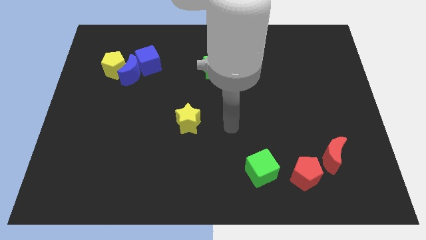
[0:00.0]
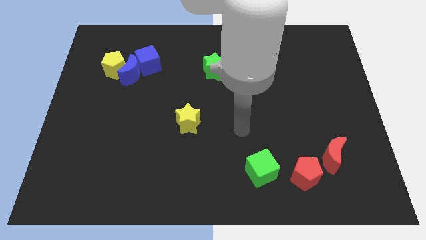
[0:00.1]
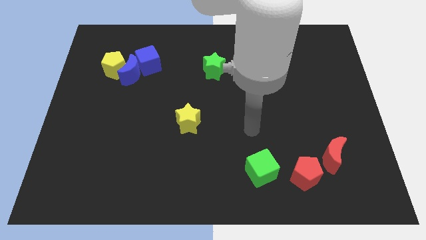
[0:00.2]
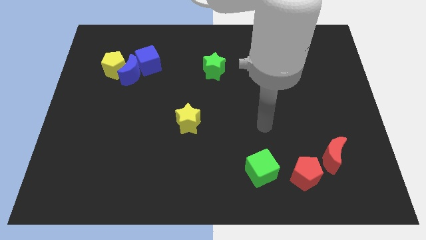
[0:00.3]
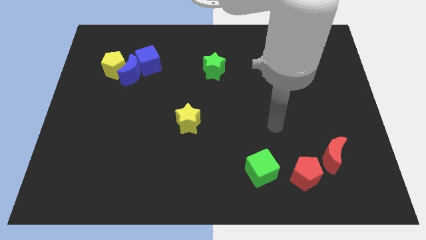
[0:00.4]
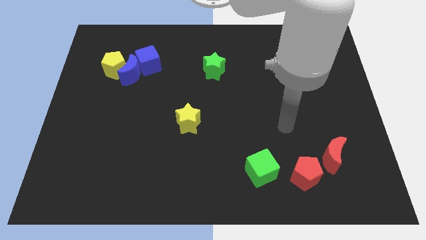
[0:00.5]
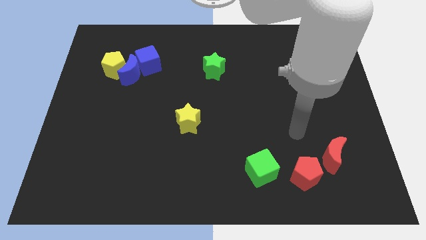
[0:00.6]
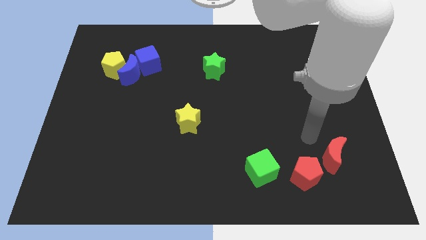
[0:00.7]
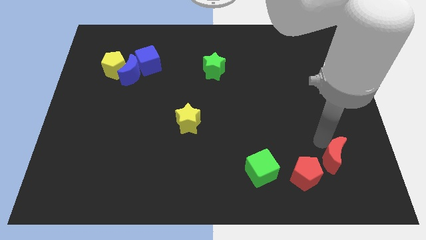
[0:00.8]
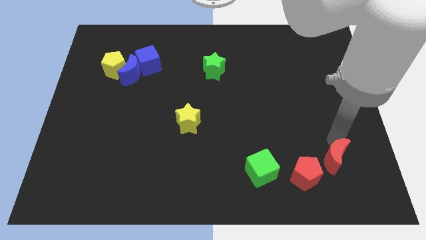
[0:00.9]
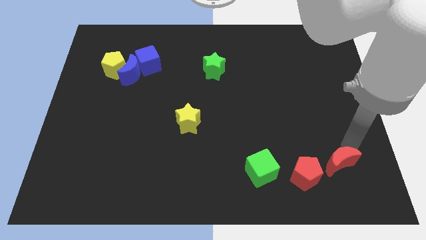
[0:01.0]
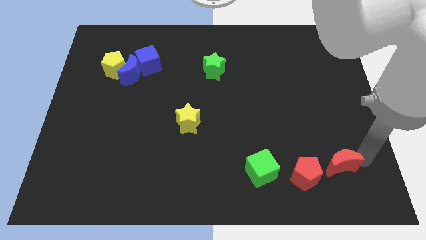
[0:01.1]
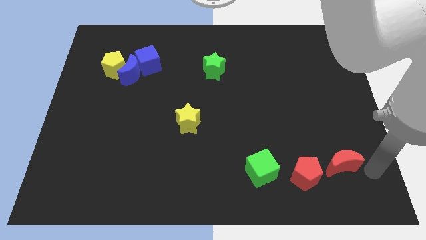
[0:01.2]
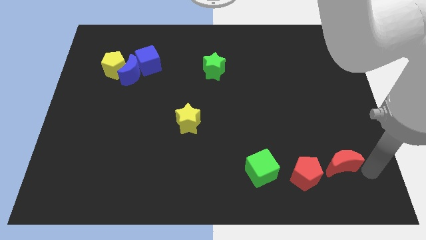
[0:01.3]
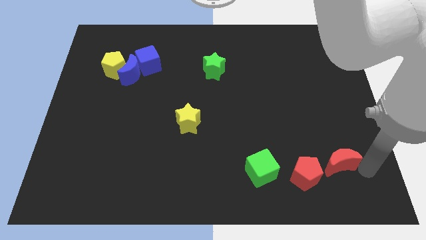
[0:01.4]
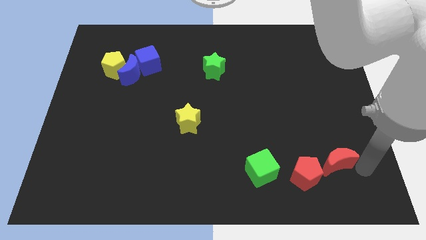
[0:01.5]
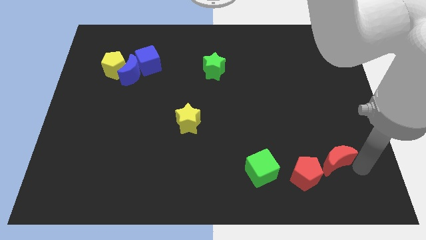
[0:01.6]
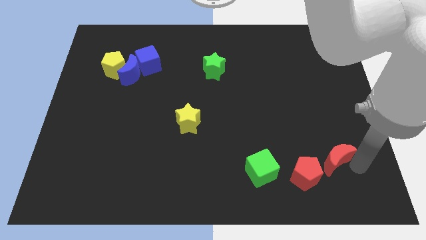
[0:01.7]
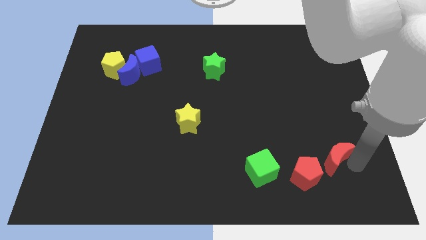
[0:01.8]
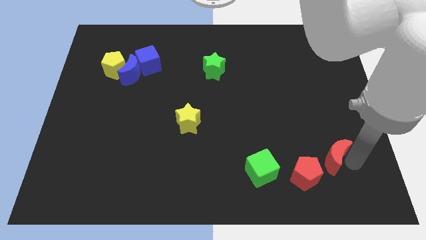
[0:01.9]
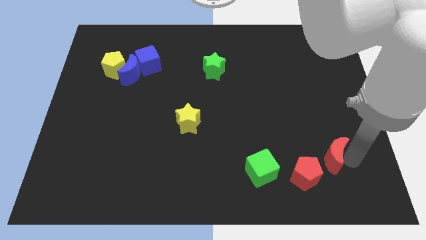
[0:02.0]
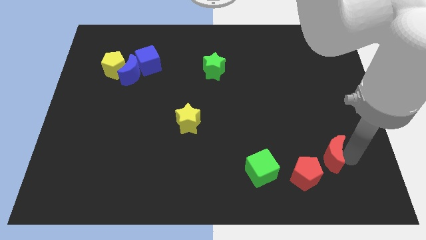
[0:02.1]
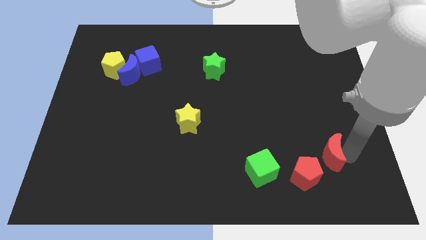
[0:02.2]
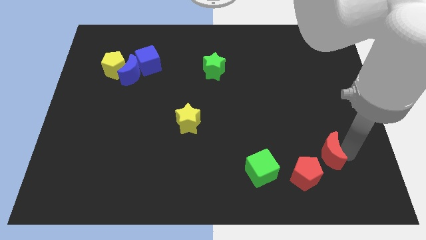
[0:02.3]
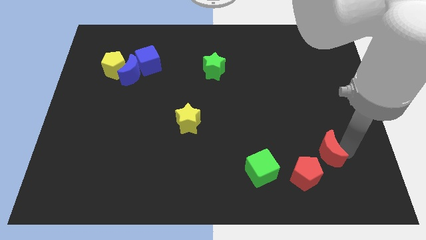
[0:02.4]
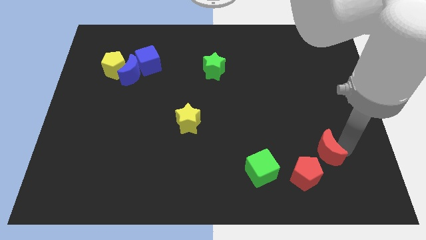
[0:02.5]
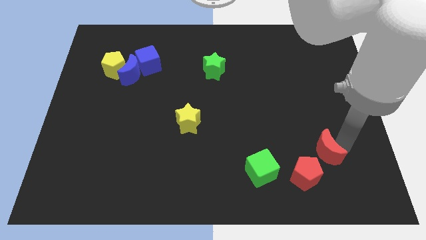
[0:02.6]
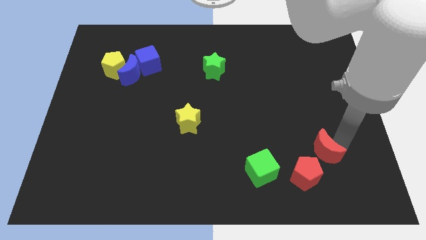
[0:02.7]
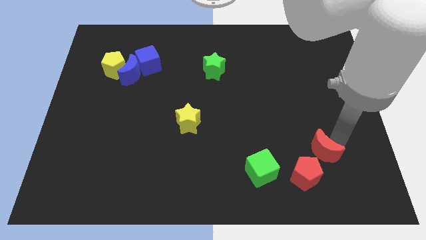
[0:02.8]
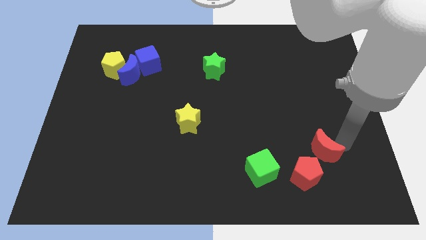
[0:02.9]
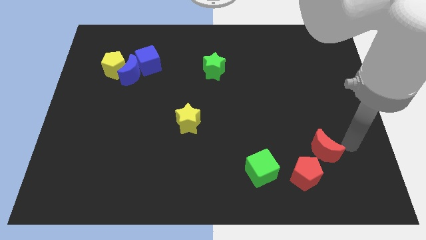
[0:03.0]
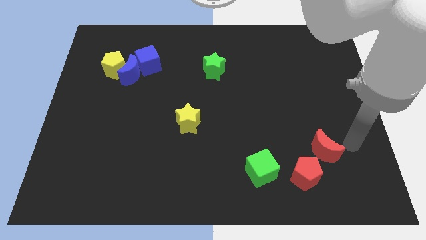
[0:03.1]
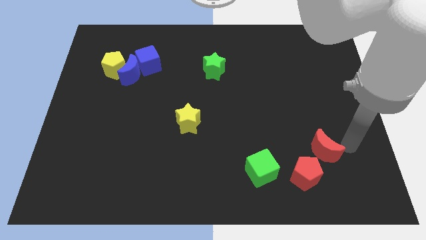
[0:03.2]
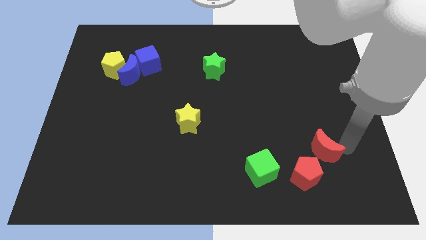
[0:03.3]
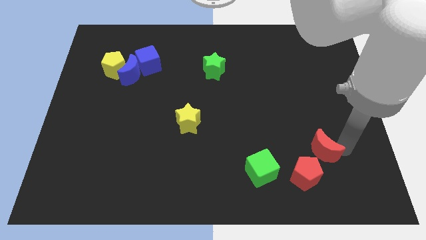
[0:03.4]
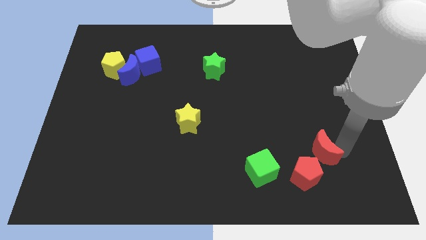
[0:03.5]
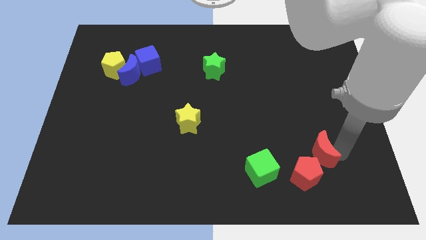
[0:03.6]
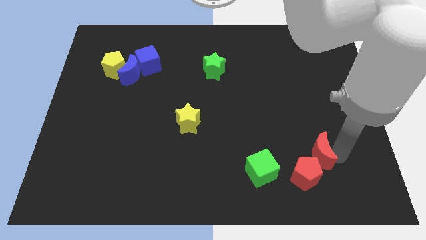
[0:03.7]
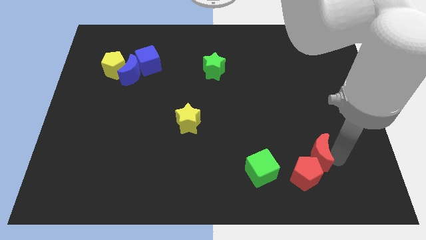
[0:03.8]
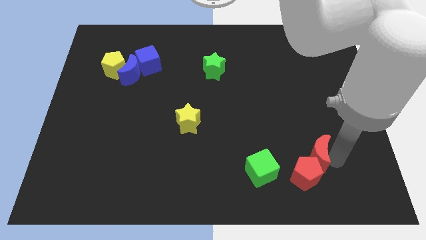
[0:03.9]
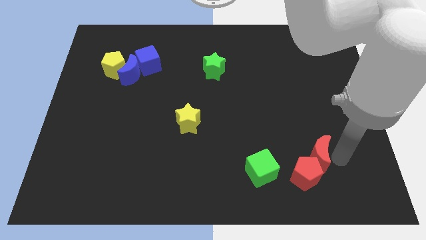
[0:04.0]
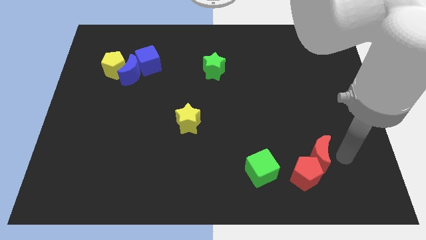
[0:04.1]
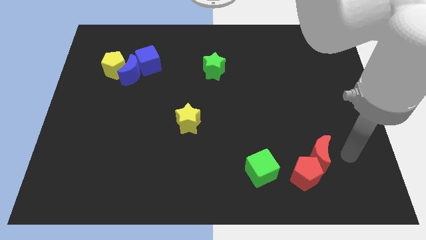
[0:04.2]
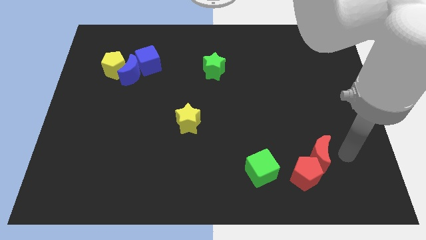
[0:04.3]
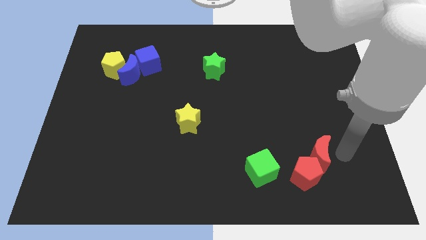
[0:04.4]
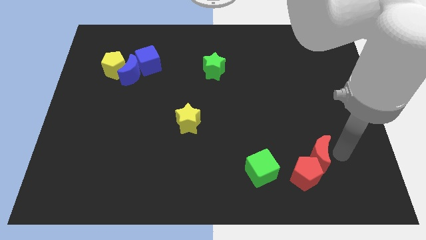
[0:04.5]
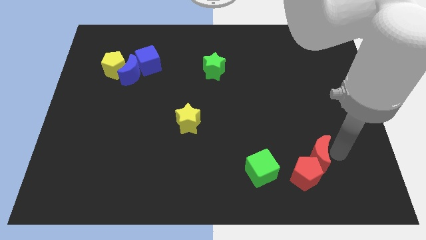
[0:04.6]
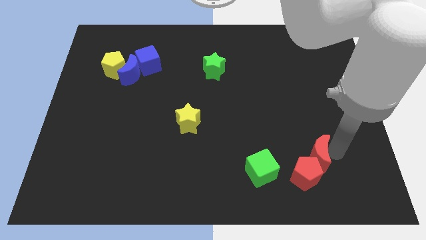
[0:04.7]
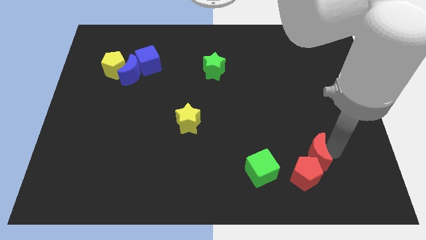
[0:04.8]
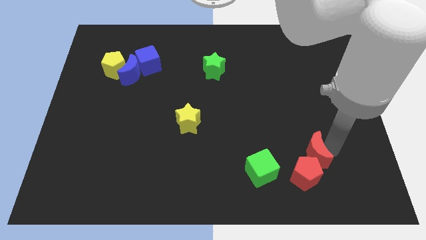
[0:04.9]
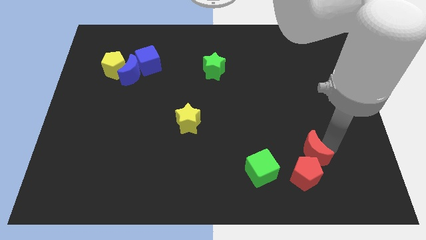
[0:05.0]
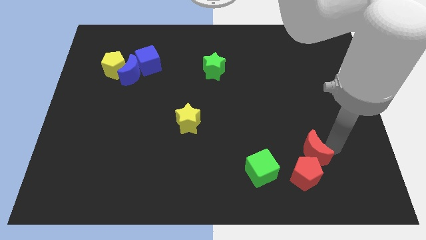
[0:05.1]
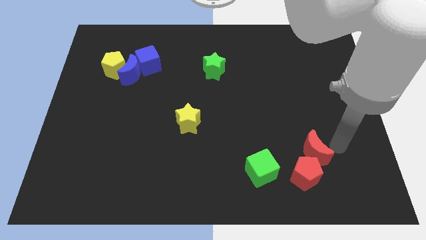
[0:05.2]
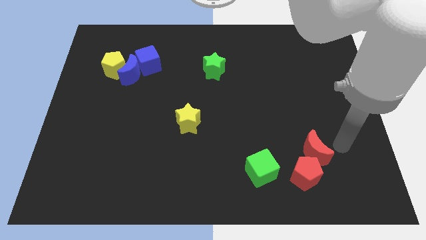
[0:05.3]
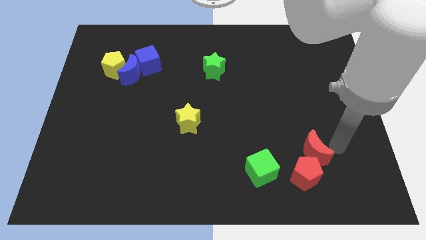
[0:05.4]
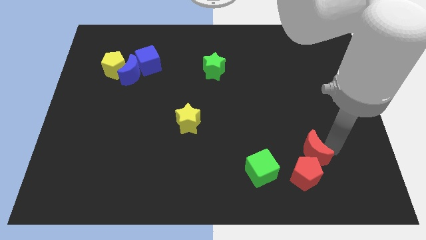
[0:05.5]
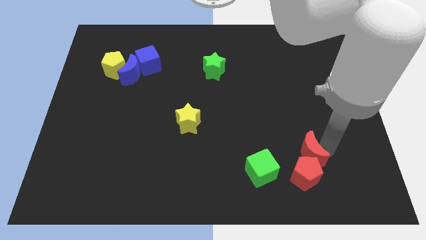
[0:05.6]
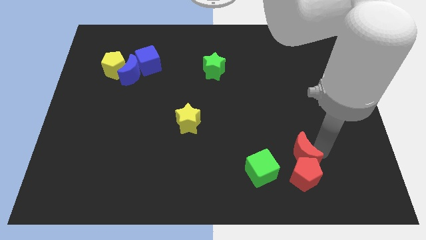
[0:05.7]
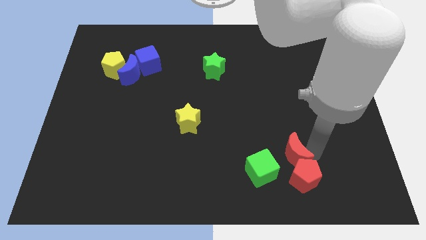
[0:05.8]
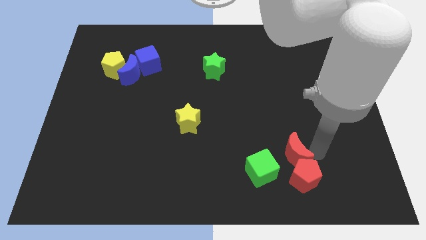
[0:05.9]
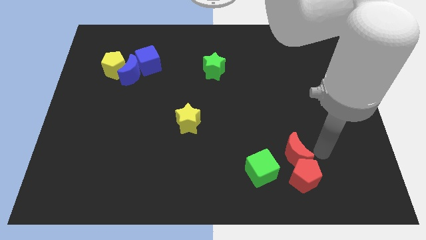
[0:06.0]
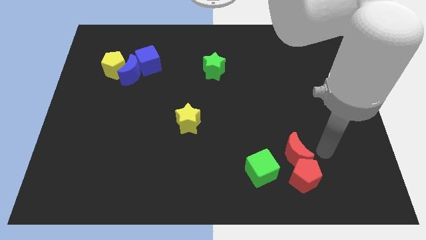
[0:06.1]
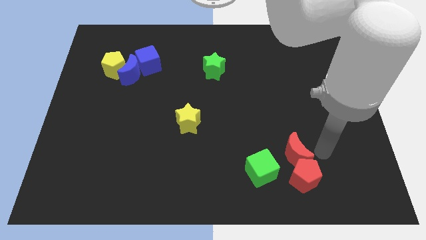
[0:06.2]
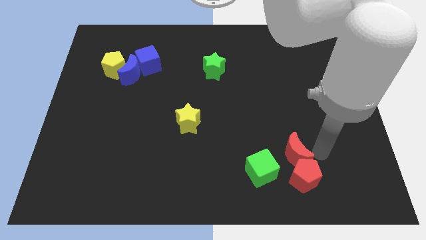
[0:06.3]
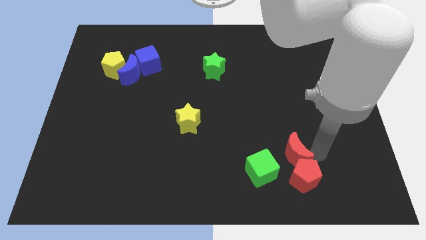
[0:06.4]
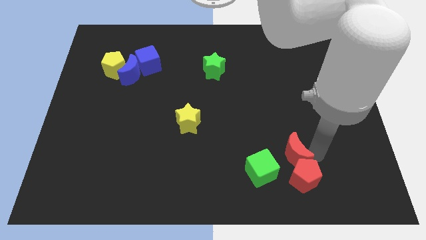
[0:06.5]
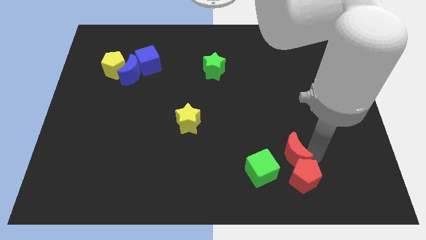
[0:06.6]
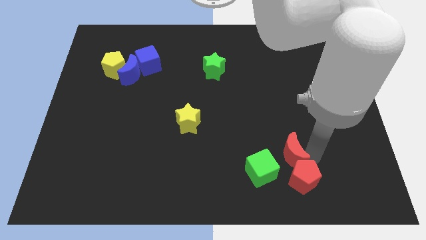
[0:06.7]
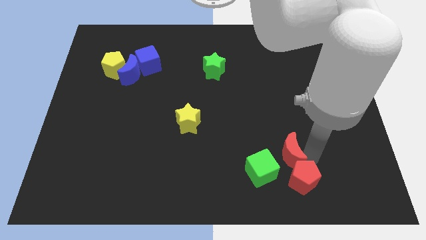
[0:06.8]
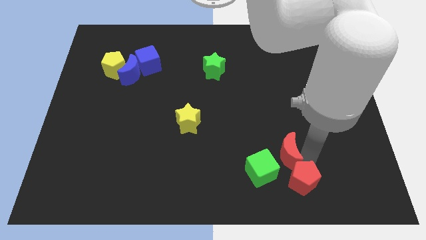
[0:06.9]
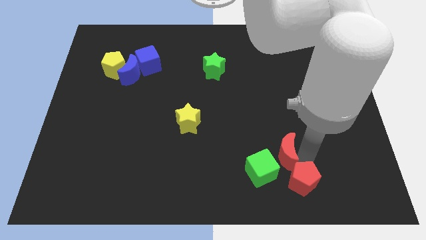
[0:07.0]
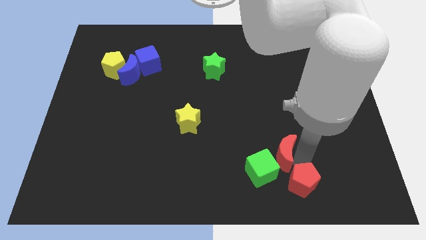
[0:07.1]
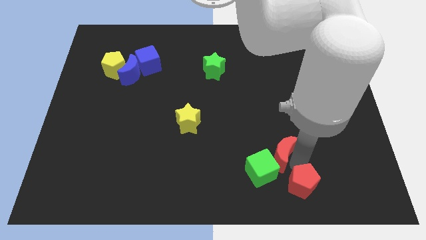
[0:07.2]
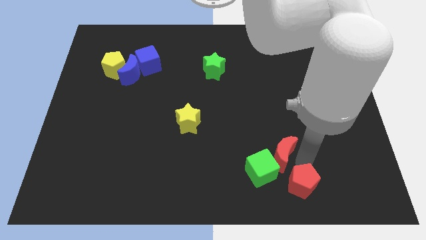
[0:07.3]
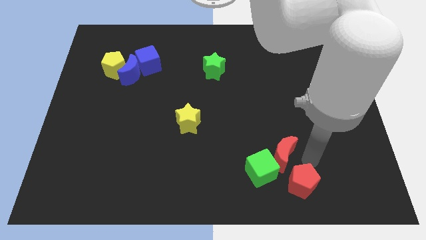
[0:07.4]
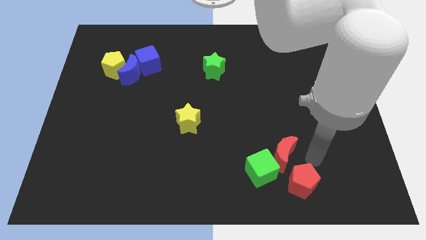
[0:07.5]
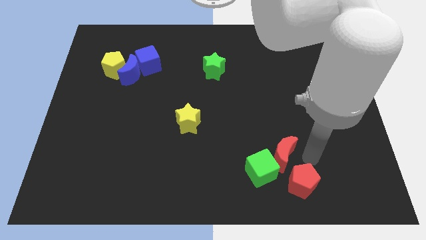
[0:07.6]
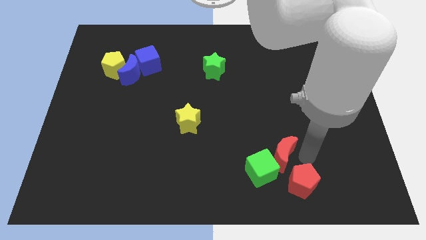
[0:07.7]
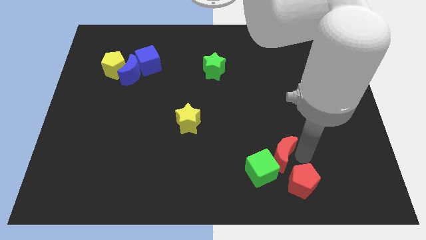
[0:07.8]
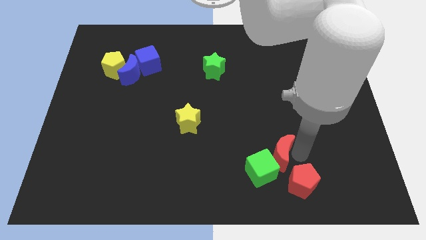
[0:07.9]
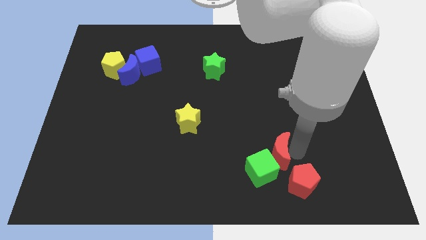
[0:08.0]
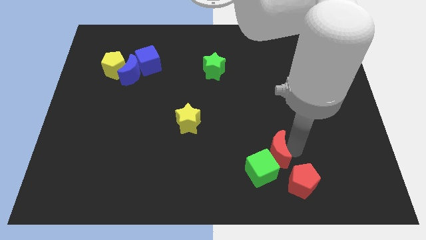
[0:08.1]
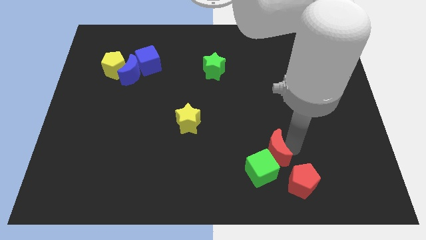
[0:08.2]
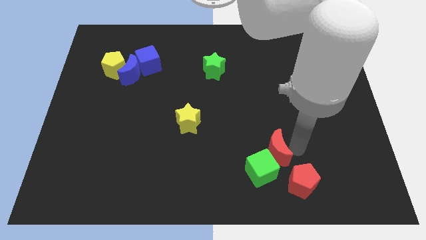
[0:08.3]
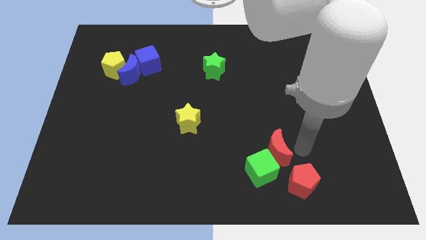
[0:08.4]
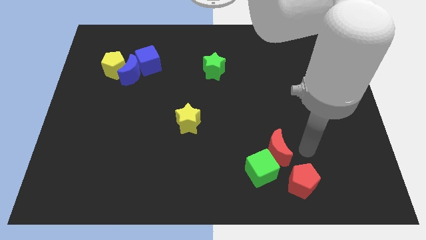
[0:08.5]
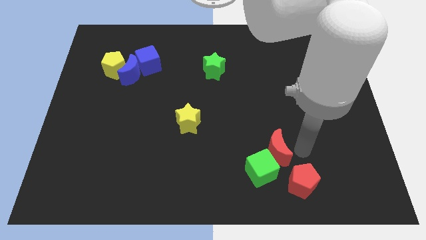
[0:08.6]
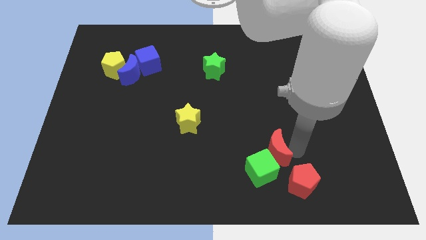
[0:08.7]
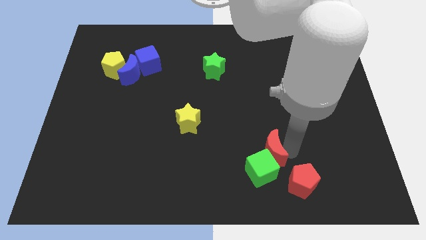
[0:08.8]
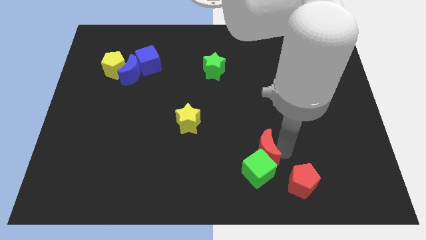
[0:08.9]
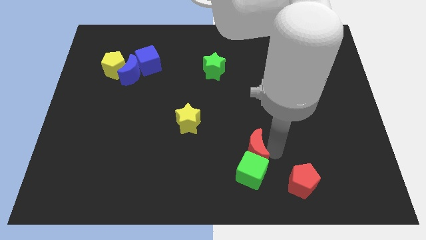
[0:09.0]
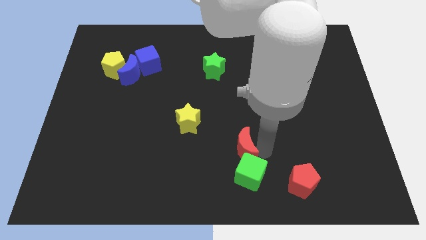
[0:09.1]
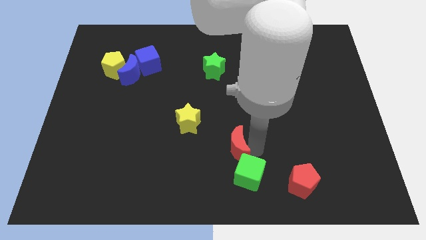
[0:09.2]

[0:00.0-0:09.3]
push the red moon to the left
